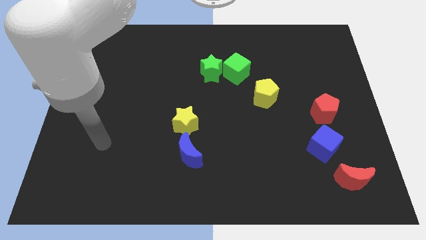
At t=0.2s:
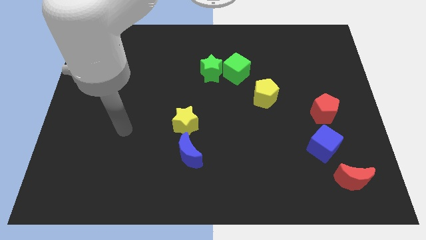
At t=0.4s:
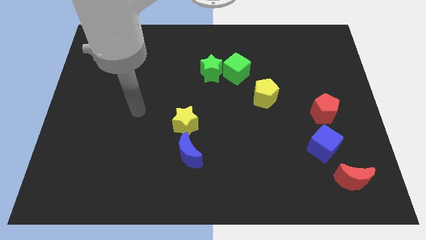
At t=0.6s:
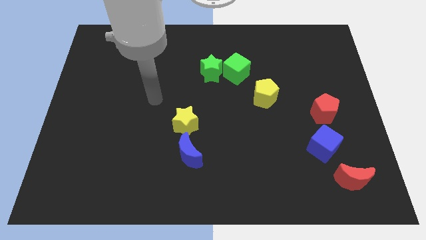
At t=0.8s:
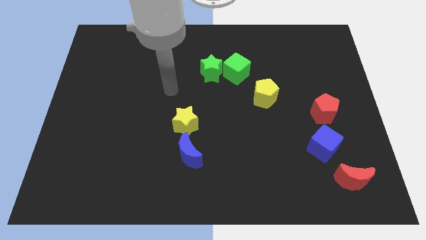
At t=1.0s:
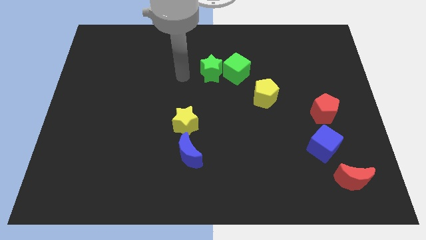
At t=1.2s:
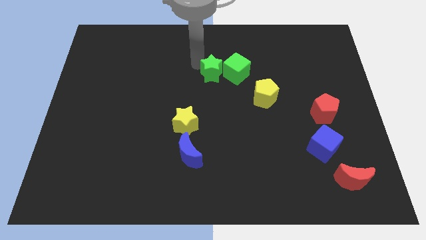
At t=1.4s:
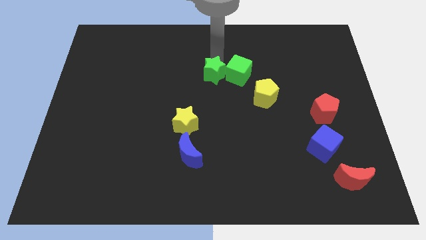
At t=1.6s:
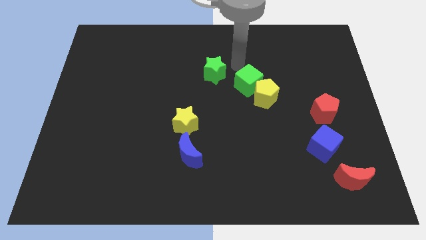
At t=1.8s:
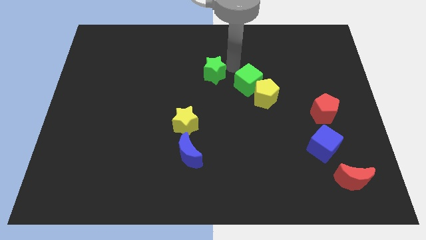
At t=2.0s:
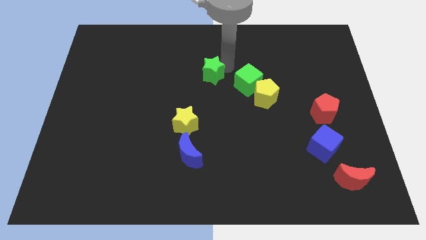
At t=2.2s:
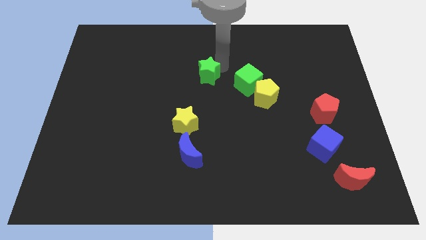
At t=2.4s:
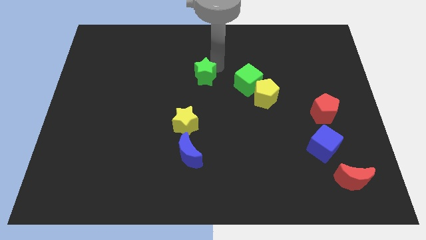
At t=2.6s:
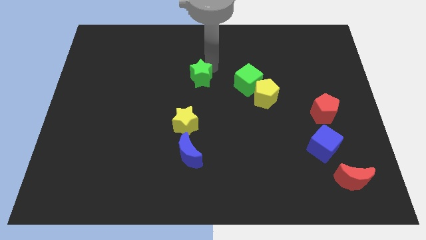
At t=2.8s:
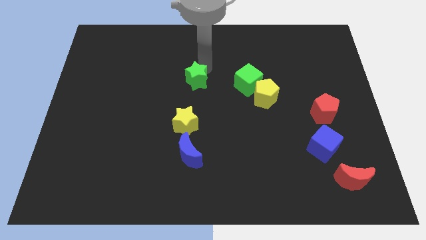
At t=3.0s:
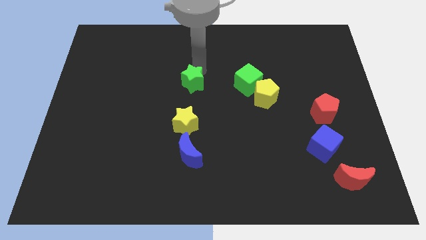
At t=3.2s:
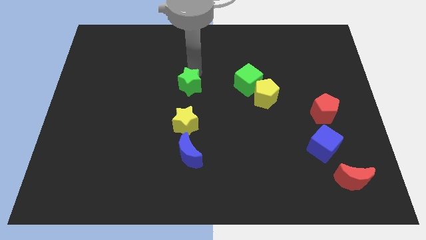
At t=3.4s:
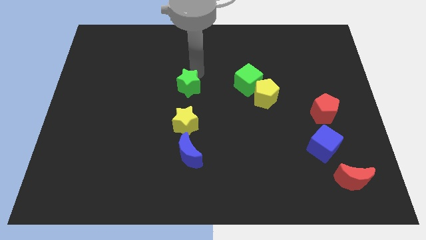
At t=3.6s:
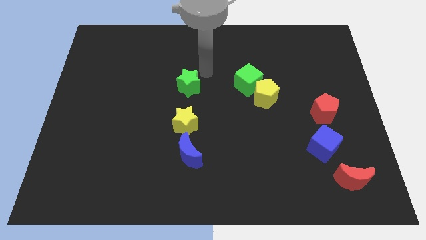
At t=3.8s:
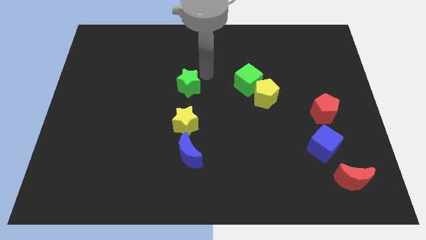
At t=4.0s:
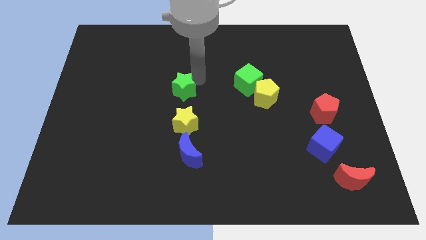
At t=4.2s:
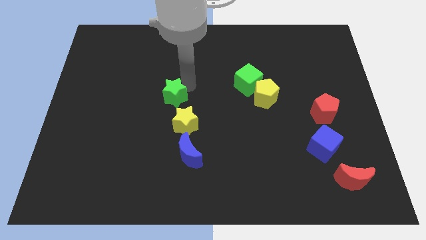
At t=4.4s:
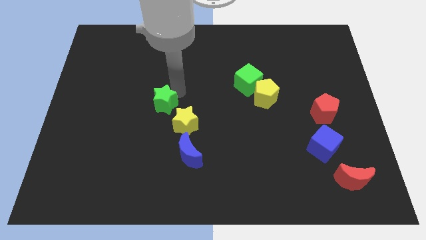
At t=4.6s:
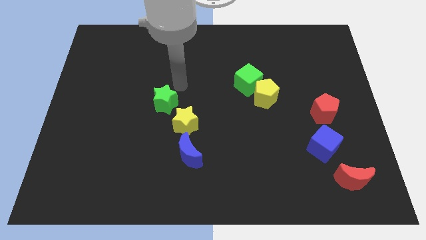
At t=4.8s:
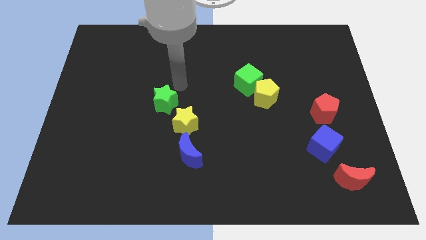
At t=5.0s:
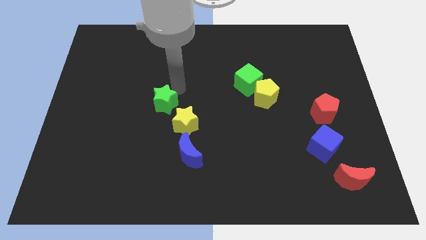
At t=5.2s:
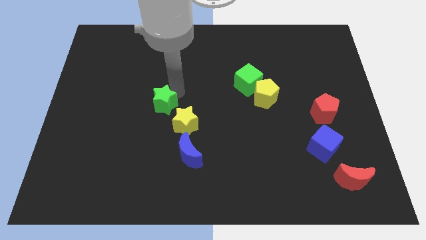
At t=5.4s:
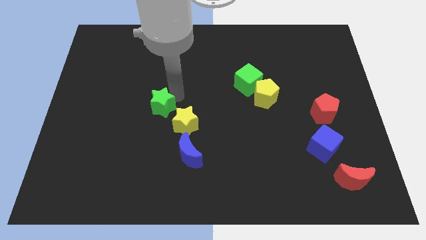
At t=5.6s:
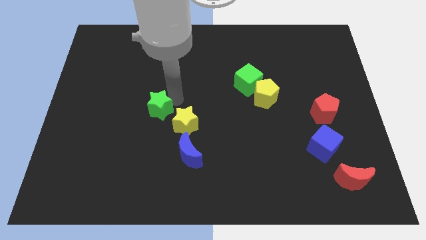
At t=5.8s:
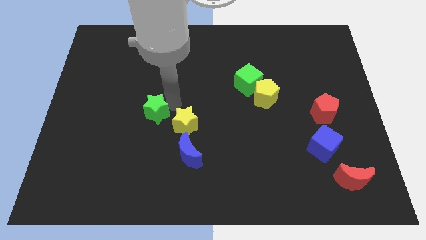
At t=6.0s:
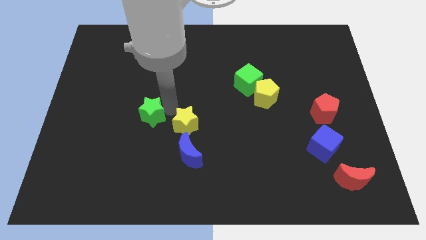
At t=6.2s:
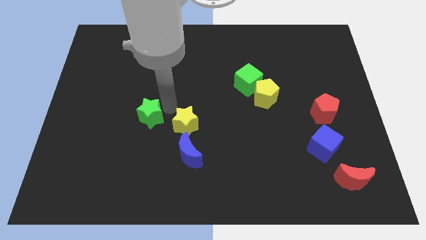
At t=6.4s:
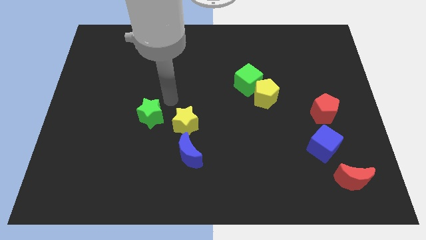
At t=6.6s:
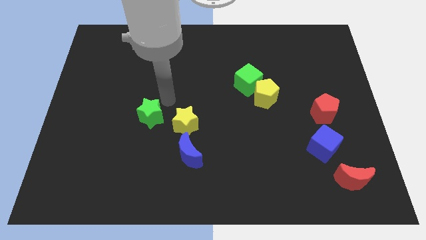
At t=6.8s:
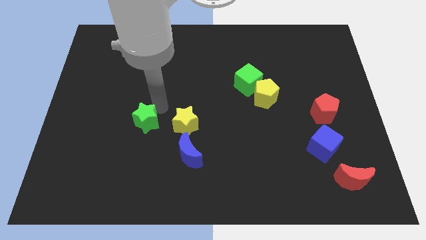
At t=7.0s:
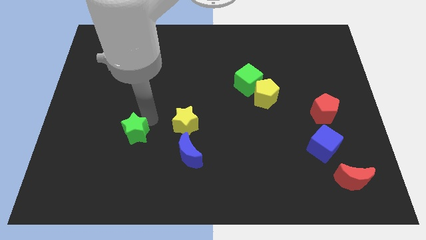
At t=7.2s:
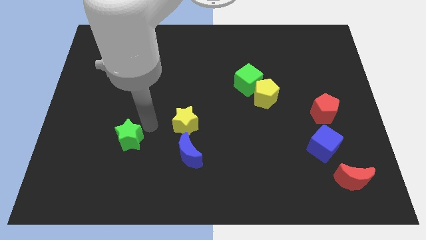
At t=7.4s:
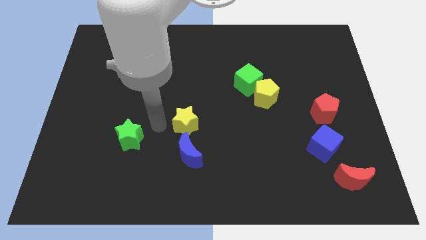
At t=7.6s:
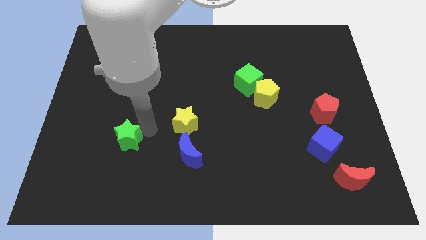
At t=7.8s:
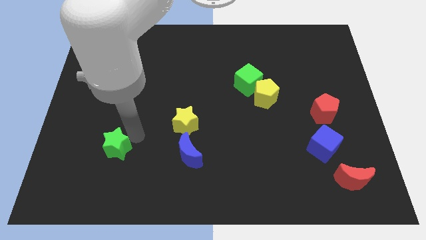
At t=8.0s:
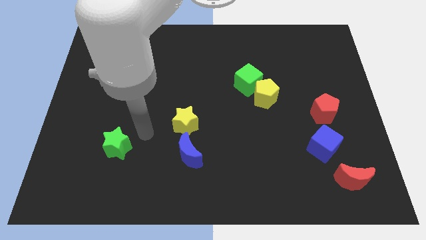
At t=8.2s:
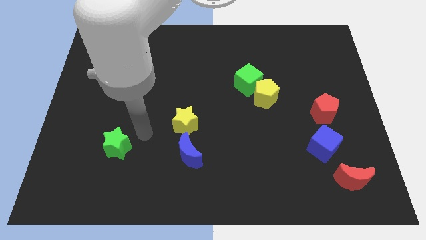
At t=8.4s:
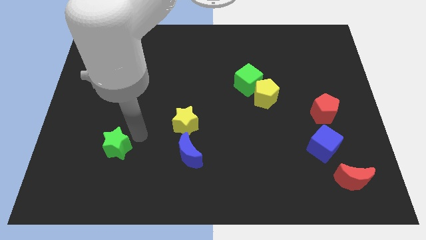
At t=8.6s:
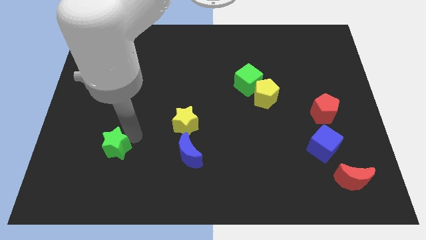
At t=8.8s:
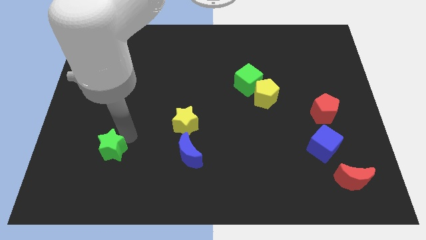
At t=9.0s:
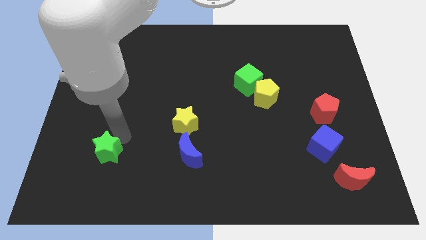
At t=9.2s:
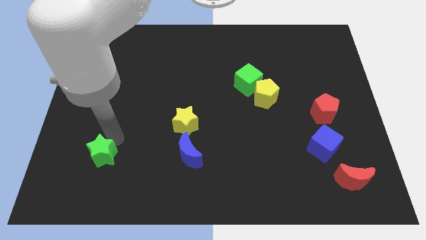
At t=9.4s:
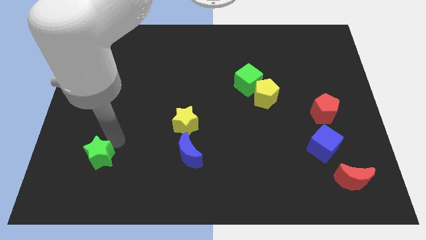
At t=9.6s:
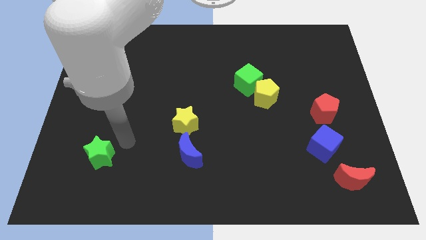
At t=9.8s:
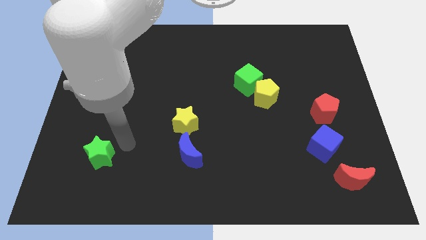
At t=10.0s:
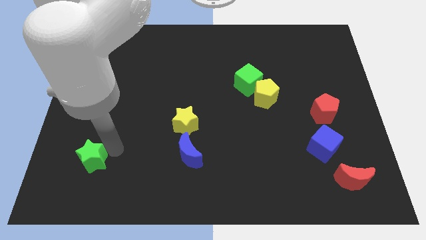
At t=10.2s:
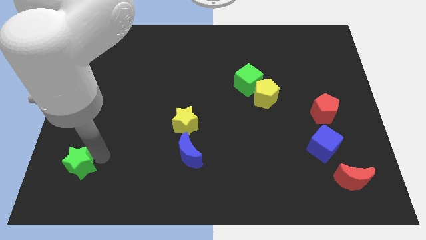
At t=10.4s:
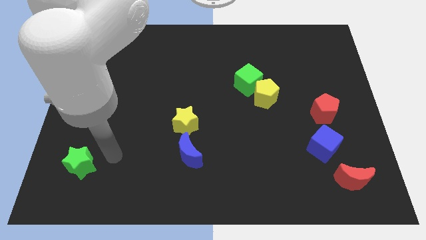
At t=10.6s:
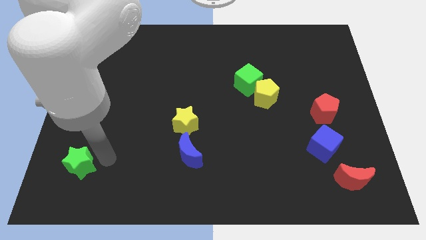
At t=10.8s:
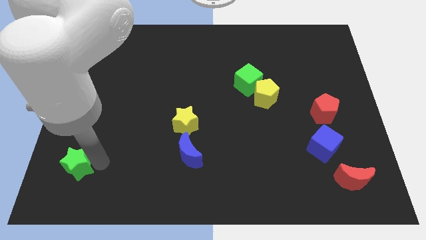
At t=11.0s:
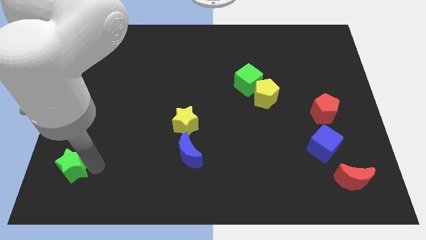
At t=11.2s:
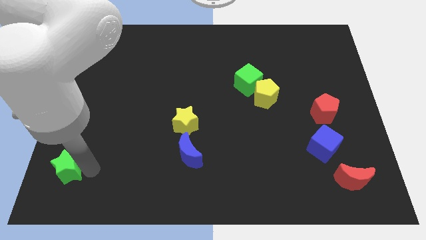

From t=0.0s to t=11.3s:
move the green star to the bottom left corner

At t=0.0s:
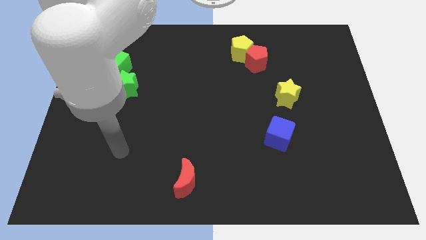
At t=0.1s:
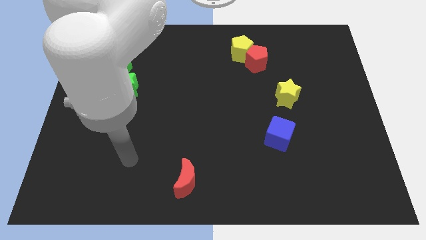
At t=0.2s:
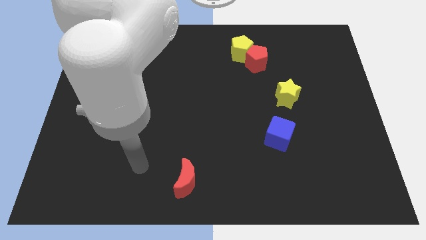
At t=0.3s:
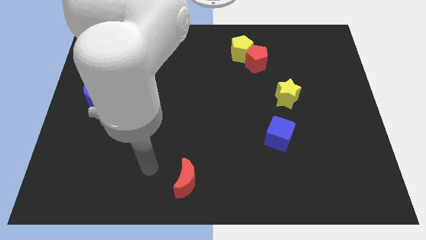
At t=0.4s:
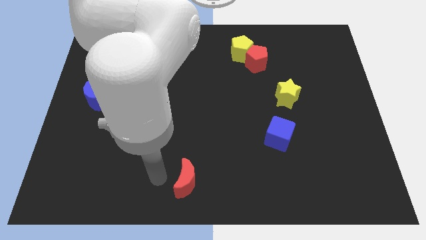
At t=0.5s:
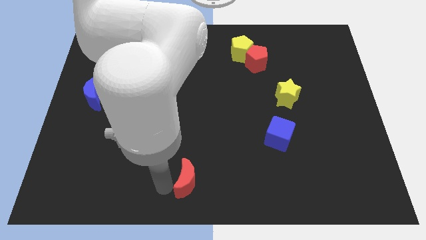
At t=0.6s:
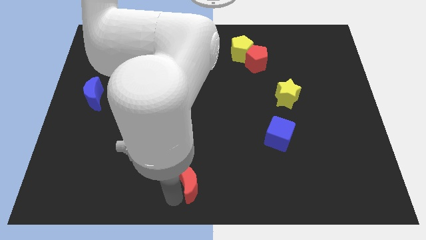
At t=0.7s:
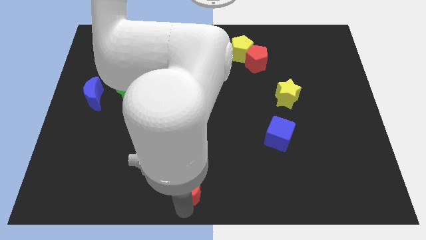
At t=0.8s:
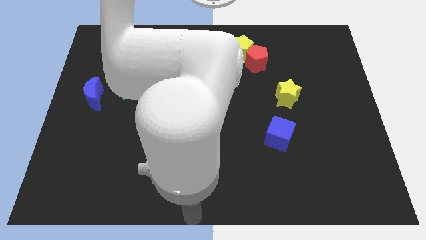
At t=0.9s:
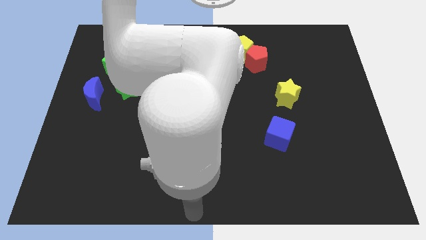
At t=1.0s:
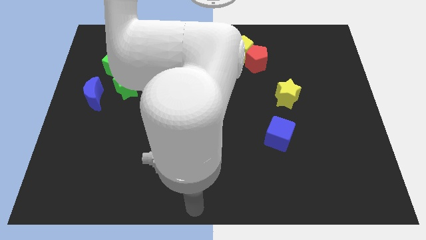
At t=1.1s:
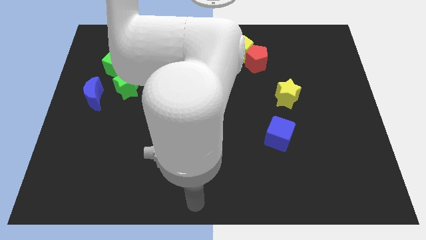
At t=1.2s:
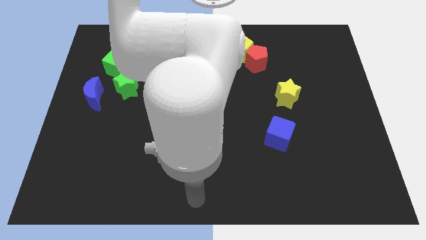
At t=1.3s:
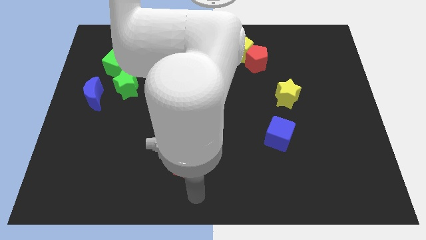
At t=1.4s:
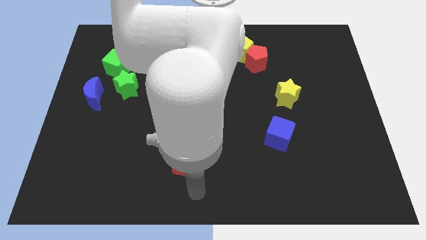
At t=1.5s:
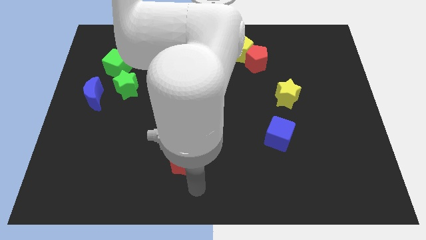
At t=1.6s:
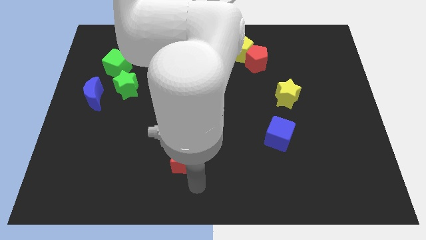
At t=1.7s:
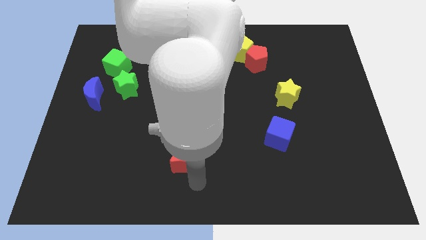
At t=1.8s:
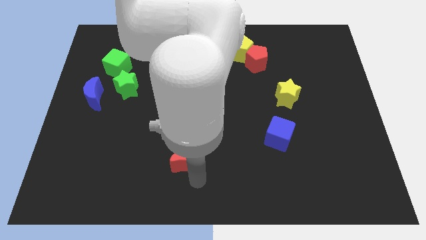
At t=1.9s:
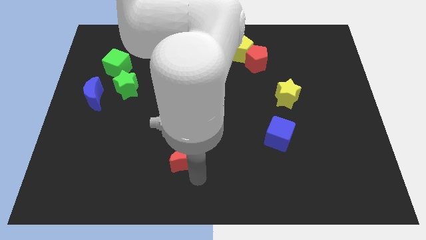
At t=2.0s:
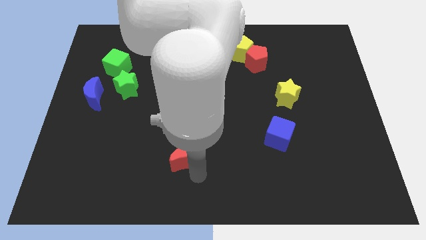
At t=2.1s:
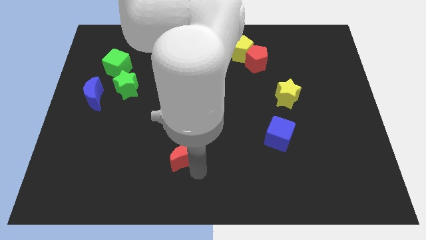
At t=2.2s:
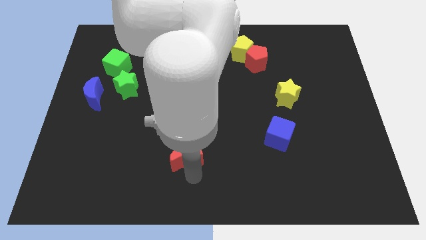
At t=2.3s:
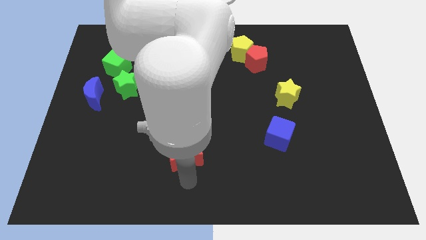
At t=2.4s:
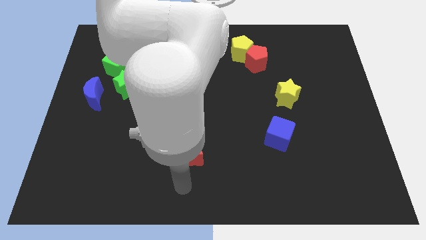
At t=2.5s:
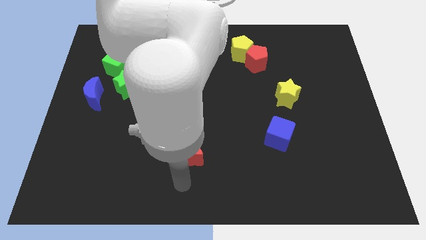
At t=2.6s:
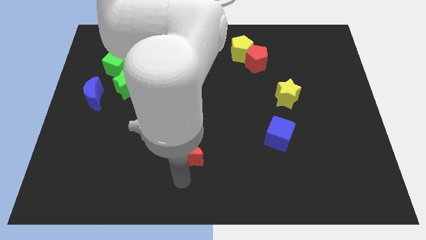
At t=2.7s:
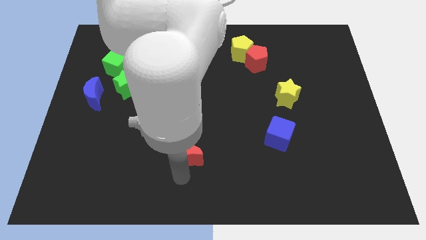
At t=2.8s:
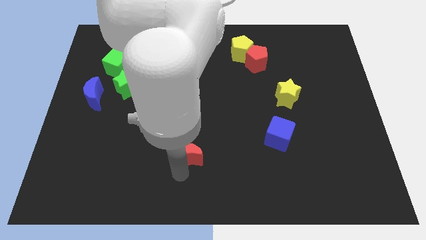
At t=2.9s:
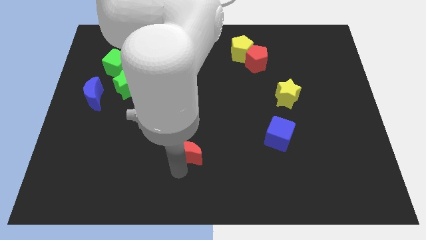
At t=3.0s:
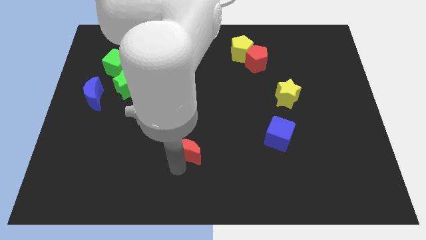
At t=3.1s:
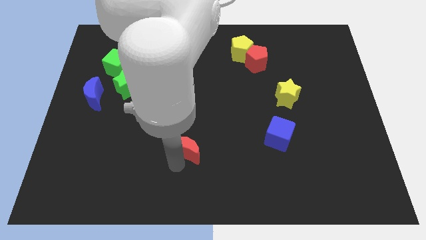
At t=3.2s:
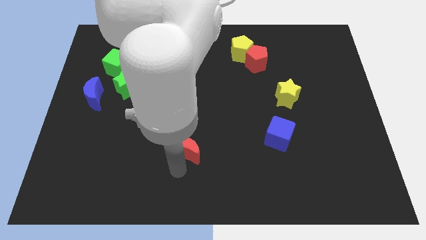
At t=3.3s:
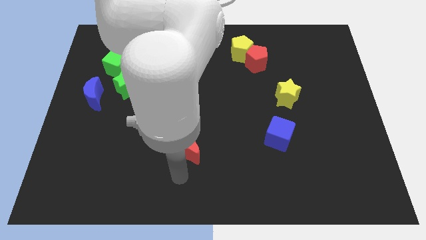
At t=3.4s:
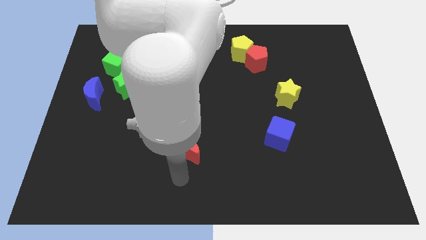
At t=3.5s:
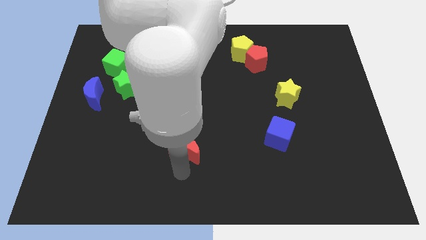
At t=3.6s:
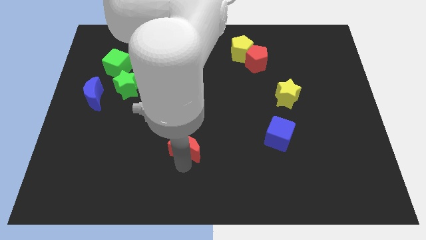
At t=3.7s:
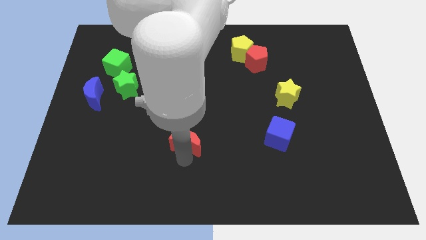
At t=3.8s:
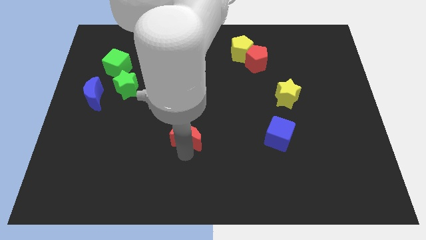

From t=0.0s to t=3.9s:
move the red moon to the middle
